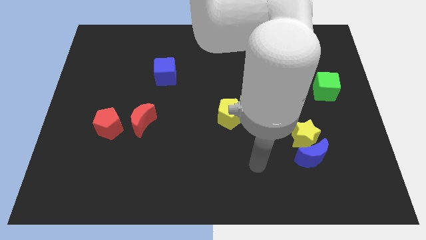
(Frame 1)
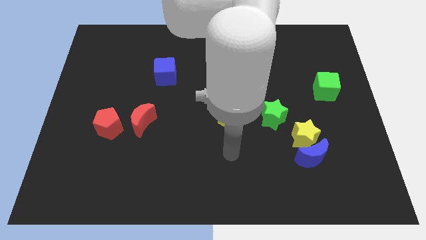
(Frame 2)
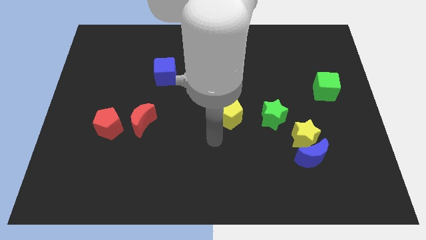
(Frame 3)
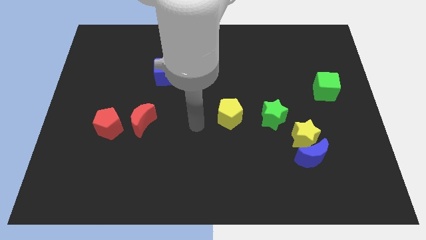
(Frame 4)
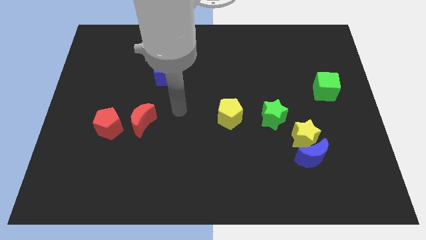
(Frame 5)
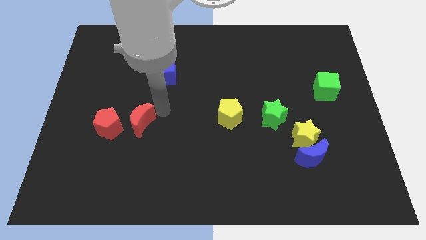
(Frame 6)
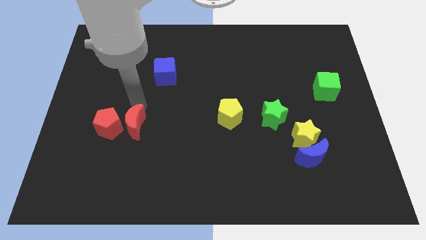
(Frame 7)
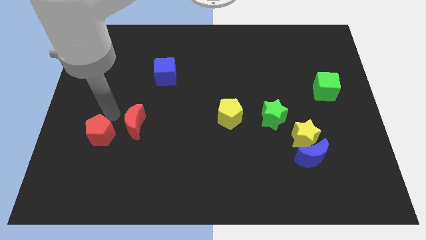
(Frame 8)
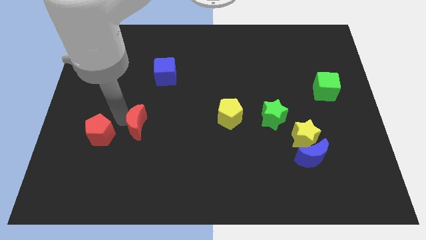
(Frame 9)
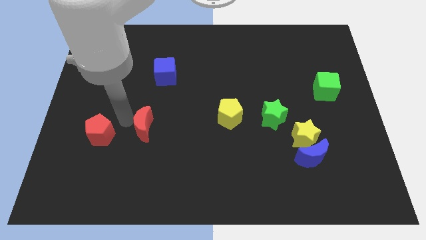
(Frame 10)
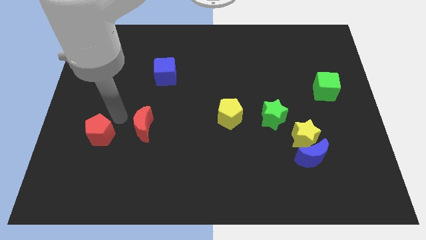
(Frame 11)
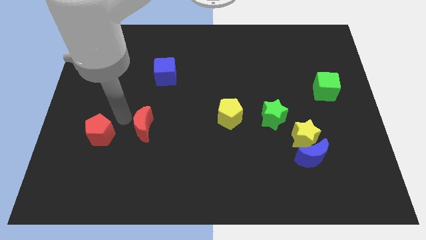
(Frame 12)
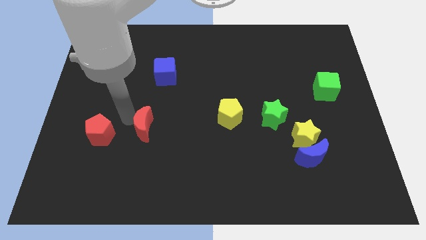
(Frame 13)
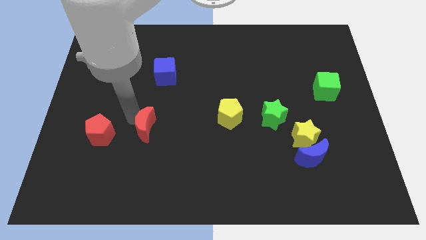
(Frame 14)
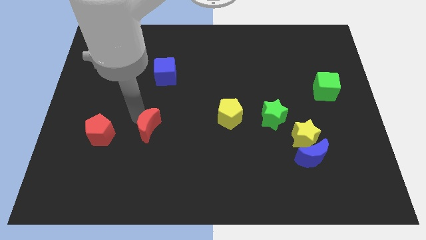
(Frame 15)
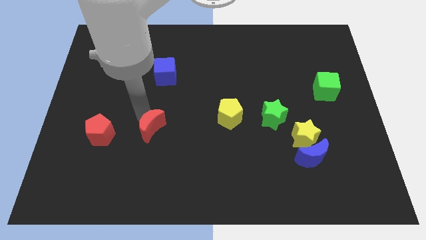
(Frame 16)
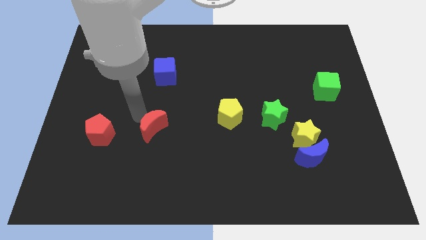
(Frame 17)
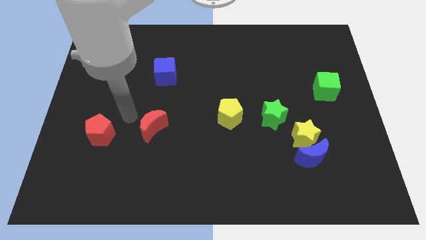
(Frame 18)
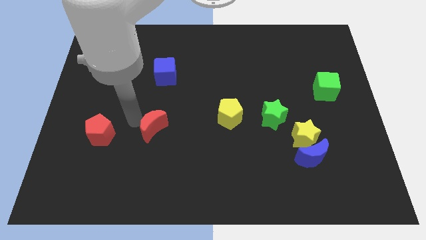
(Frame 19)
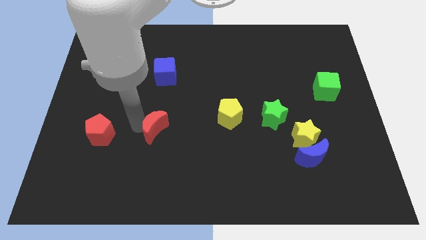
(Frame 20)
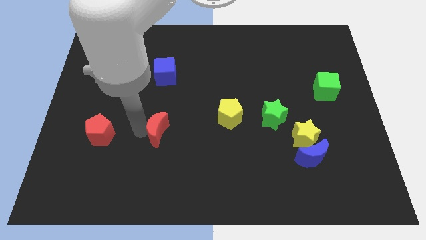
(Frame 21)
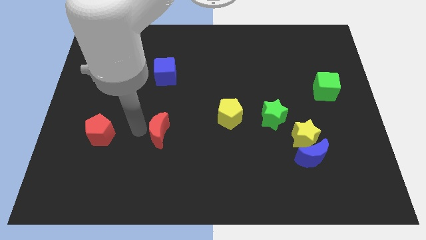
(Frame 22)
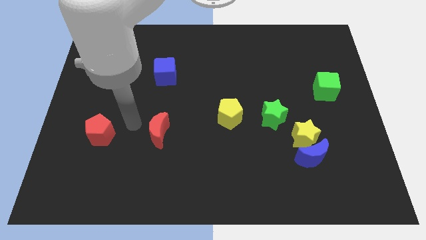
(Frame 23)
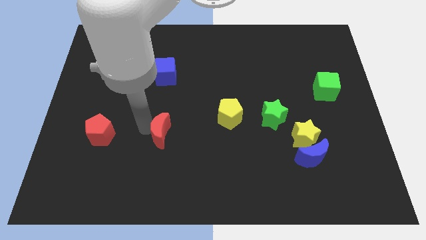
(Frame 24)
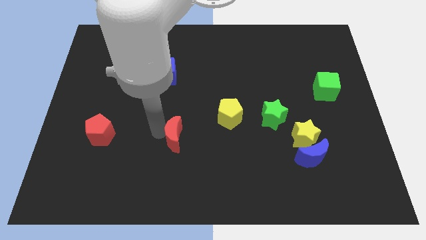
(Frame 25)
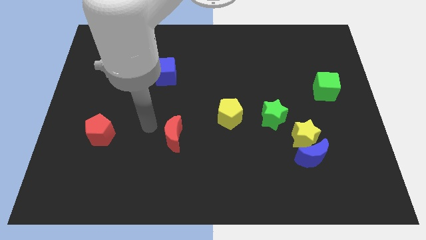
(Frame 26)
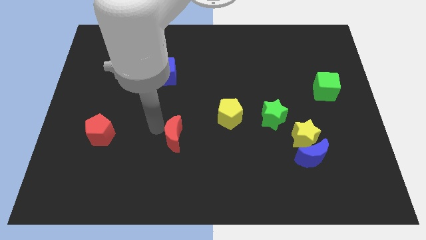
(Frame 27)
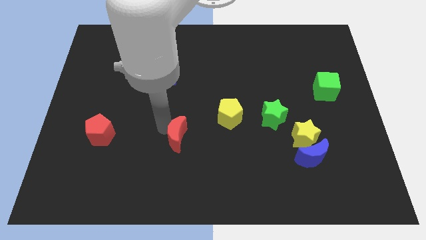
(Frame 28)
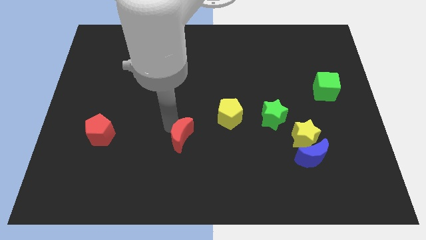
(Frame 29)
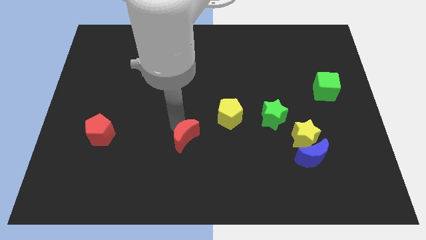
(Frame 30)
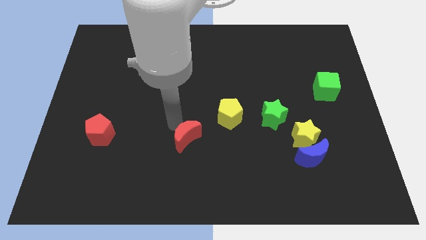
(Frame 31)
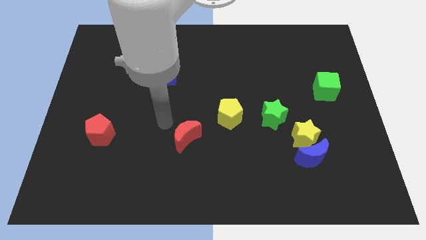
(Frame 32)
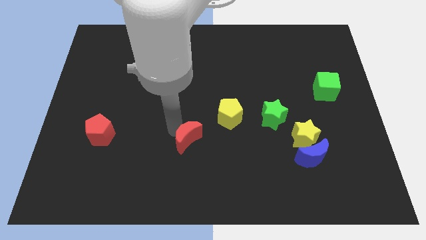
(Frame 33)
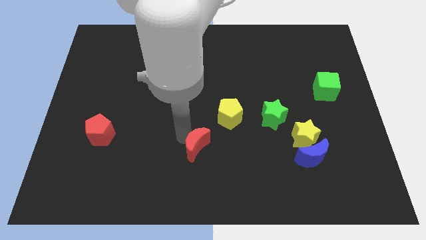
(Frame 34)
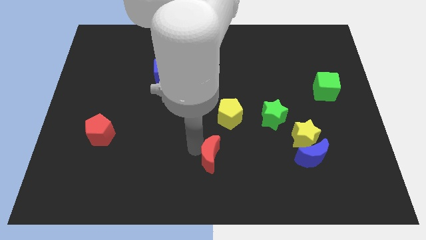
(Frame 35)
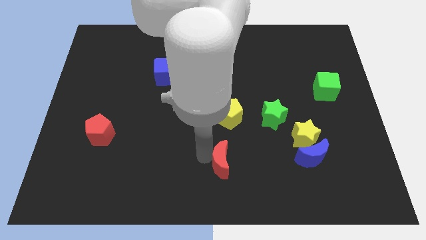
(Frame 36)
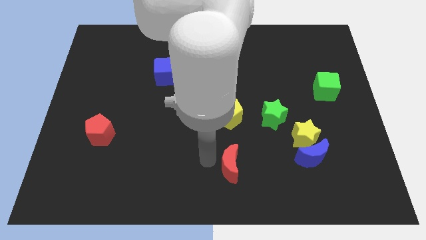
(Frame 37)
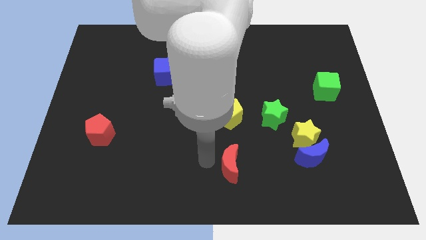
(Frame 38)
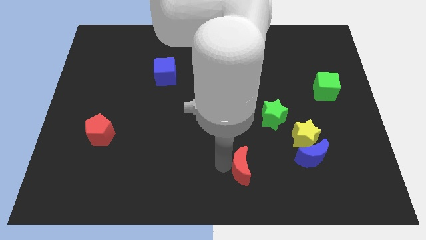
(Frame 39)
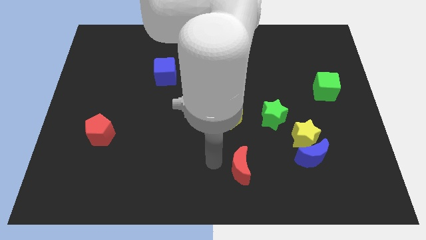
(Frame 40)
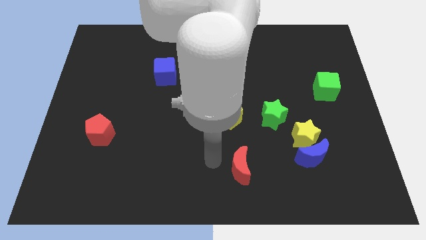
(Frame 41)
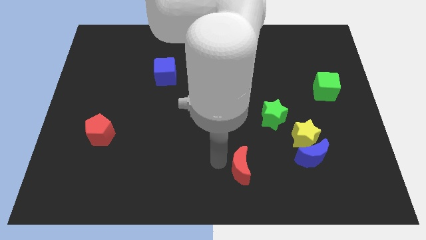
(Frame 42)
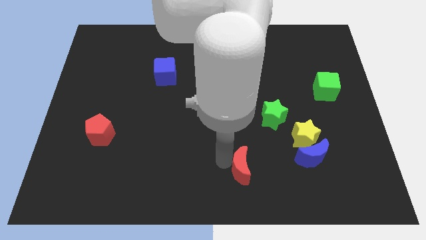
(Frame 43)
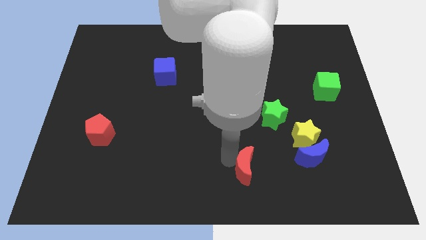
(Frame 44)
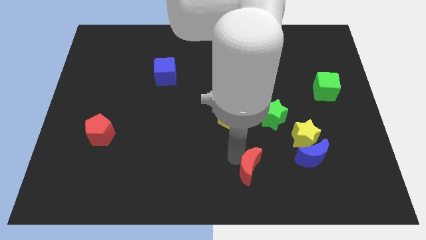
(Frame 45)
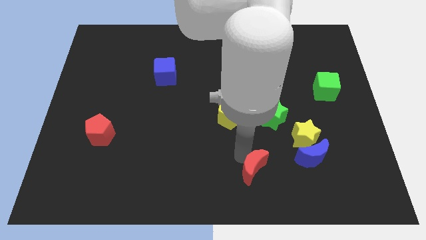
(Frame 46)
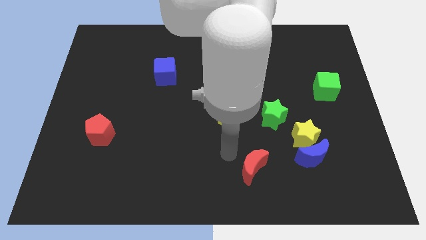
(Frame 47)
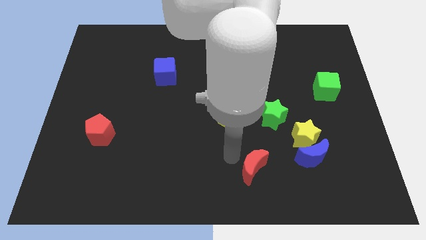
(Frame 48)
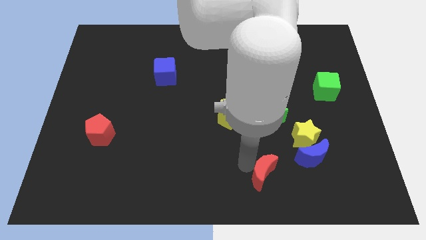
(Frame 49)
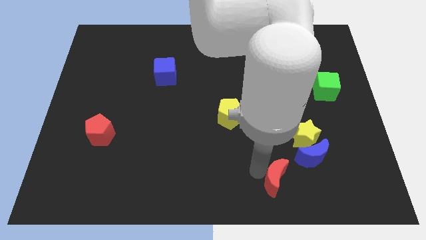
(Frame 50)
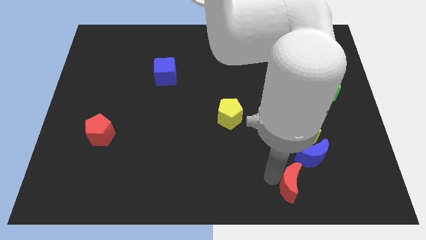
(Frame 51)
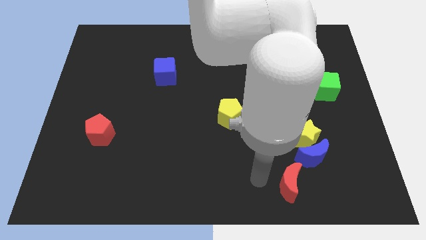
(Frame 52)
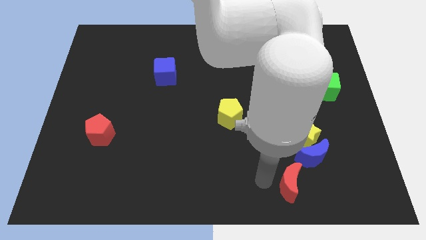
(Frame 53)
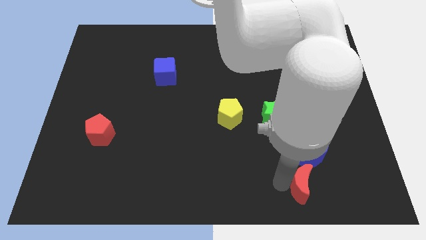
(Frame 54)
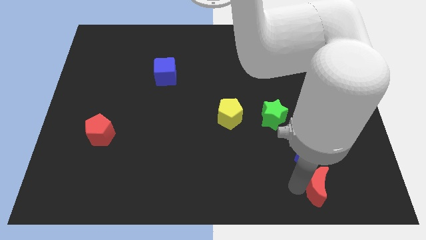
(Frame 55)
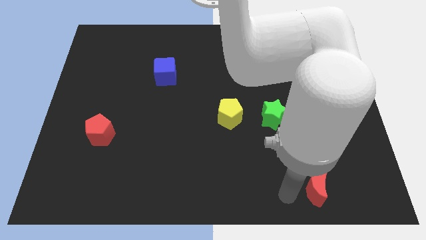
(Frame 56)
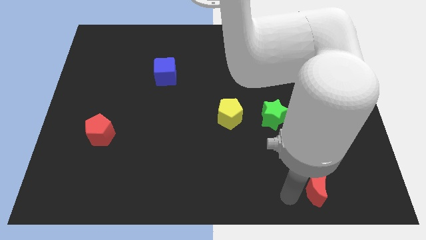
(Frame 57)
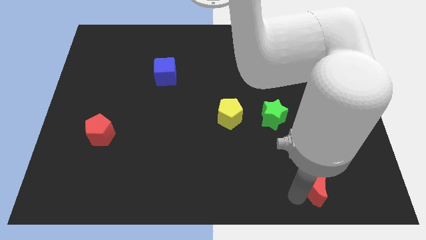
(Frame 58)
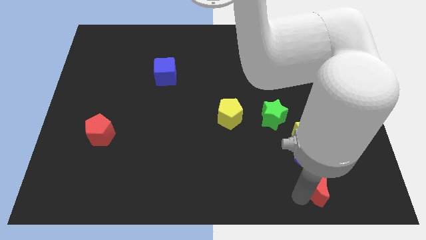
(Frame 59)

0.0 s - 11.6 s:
move the red moon to the bottom right side of the blue moon

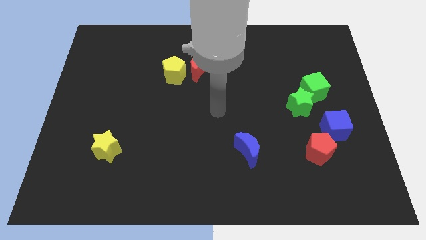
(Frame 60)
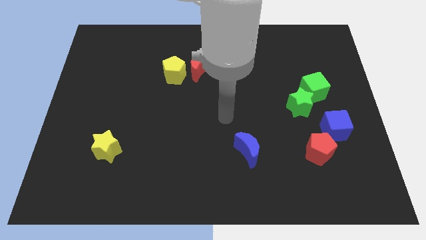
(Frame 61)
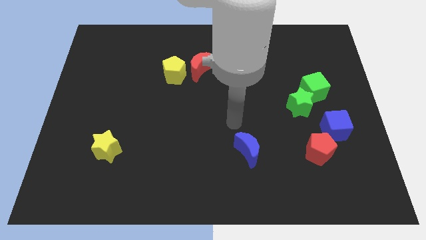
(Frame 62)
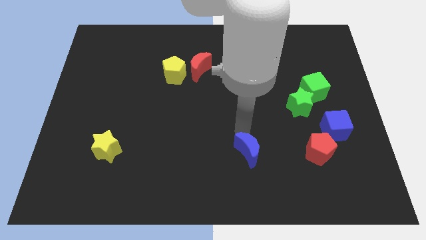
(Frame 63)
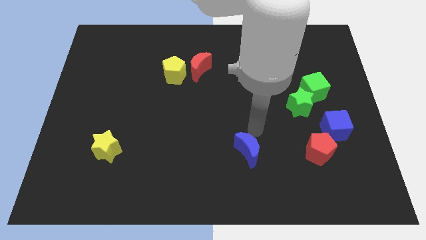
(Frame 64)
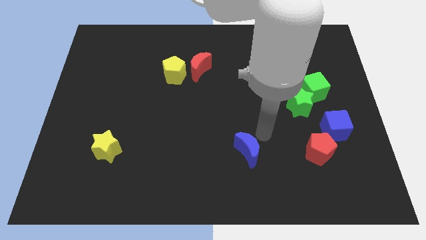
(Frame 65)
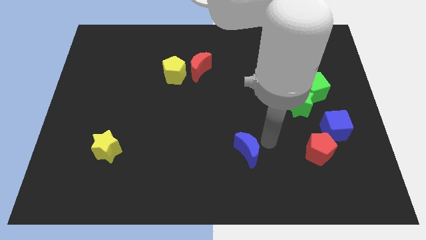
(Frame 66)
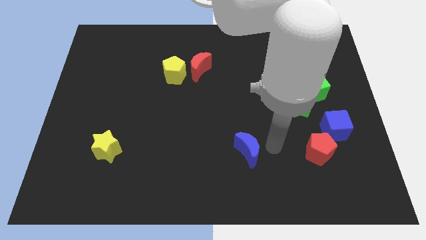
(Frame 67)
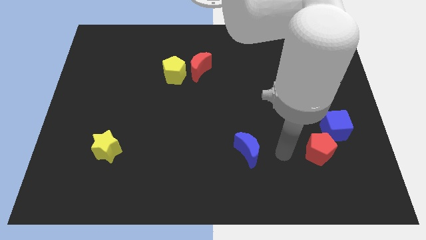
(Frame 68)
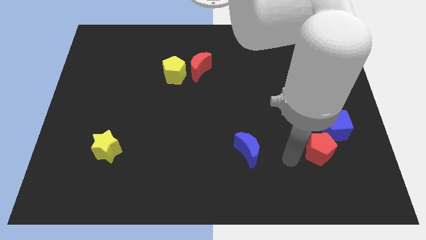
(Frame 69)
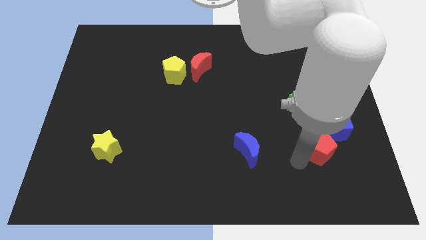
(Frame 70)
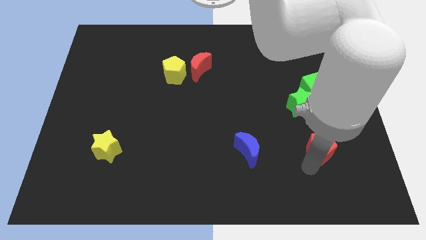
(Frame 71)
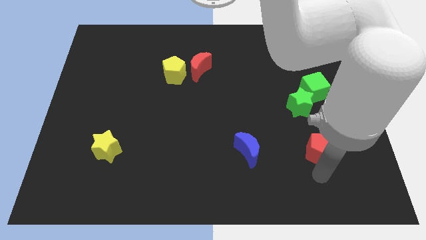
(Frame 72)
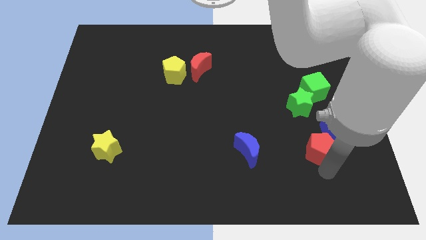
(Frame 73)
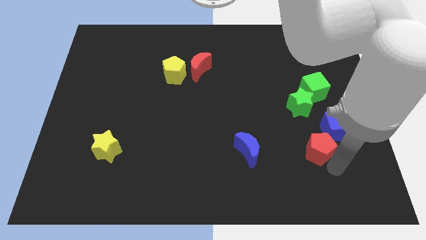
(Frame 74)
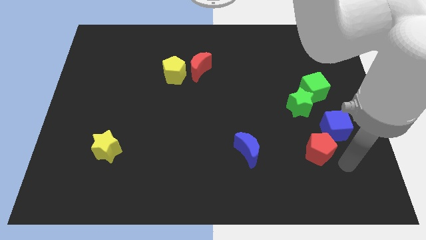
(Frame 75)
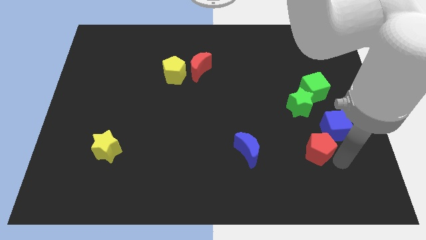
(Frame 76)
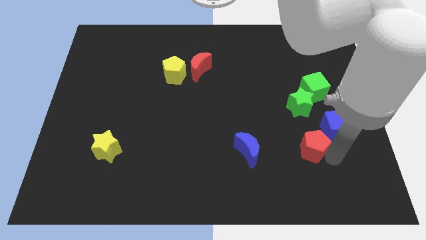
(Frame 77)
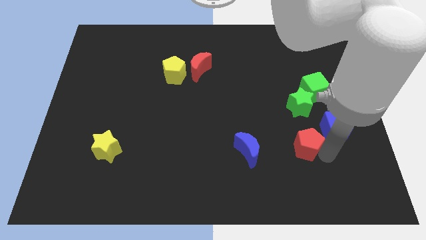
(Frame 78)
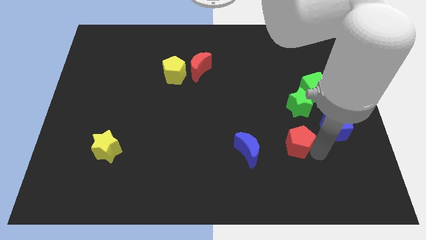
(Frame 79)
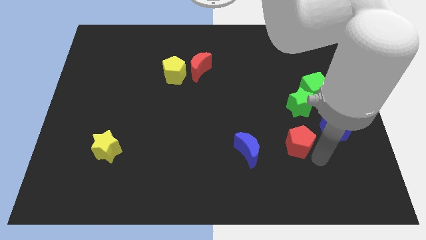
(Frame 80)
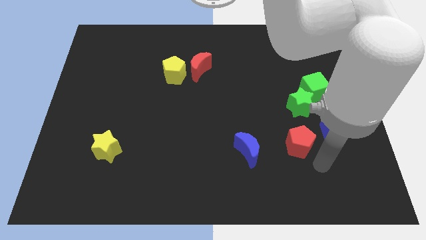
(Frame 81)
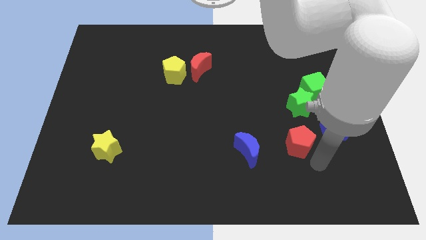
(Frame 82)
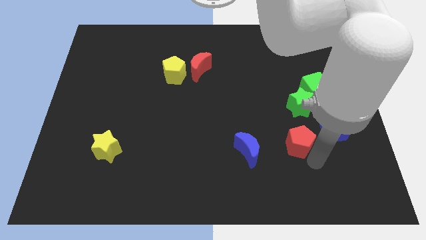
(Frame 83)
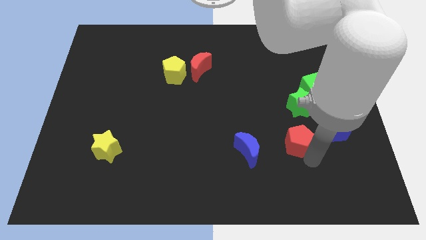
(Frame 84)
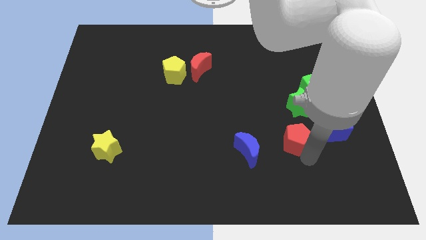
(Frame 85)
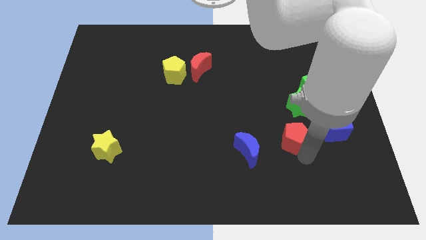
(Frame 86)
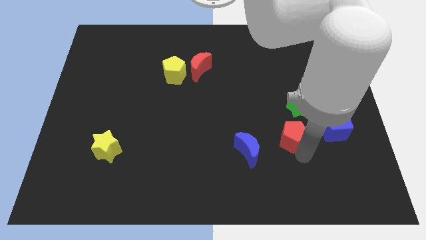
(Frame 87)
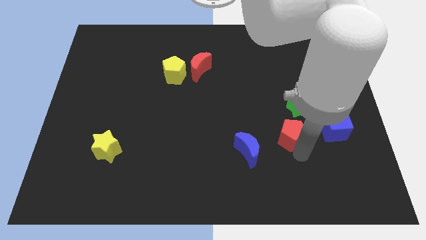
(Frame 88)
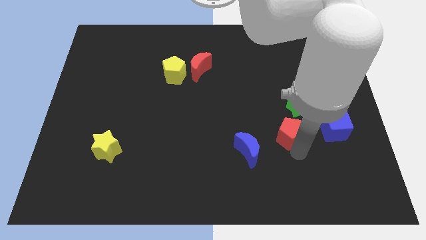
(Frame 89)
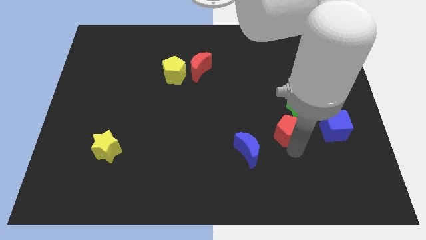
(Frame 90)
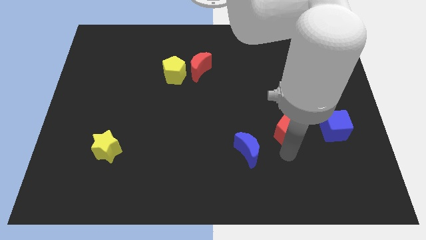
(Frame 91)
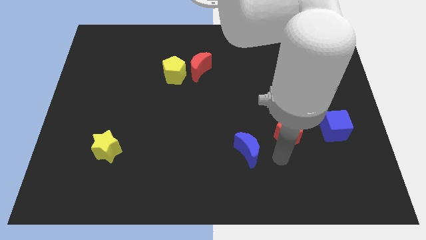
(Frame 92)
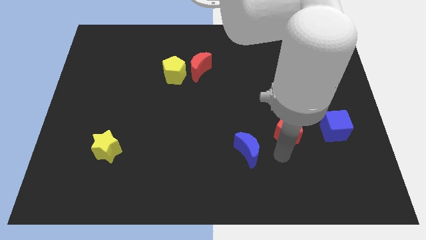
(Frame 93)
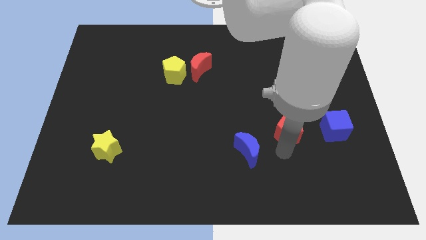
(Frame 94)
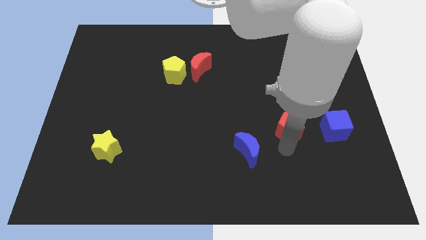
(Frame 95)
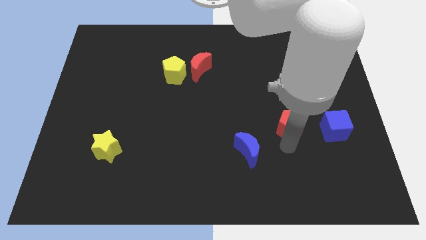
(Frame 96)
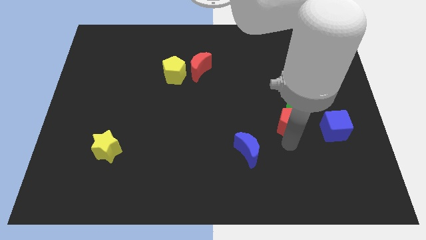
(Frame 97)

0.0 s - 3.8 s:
put the red pentagon to the bottom left side of the green cube
